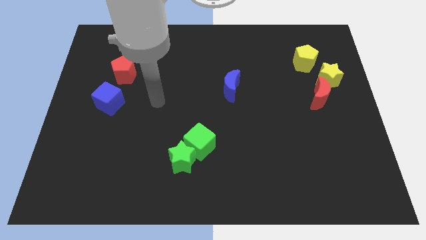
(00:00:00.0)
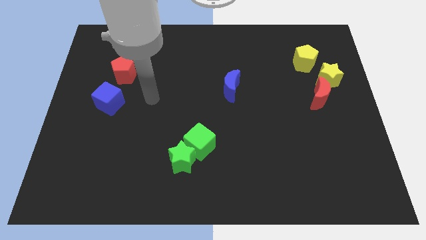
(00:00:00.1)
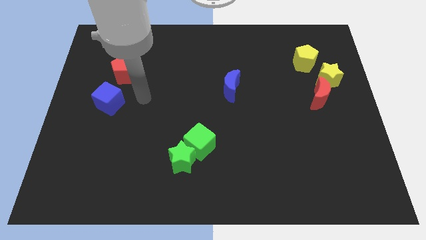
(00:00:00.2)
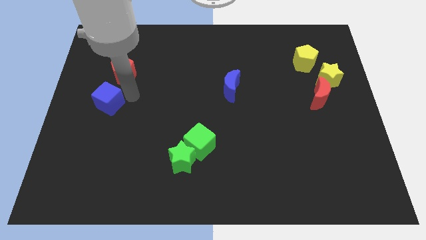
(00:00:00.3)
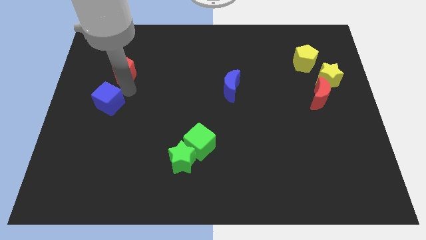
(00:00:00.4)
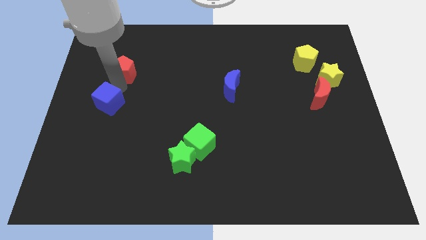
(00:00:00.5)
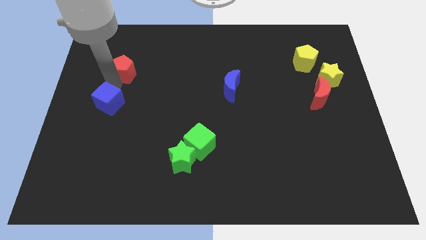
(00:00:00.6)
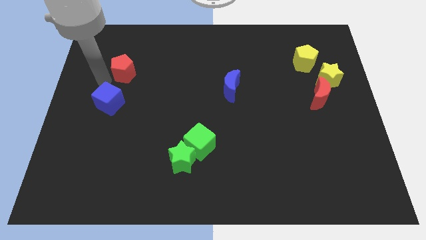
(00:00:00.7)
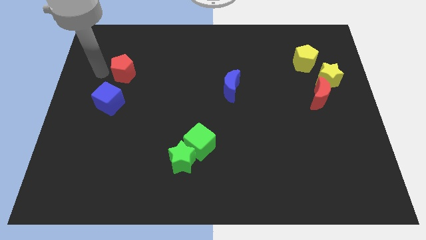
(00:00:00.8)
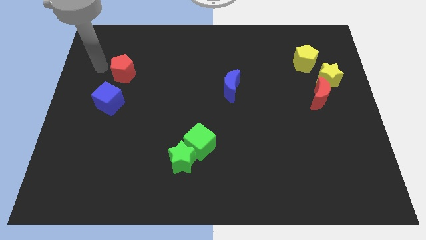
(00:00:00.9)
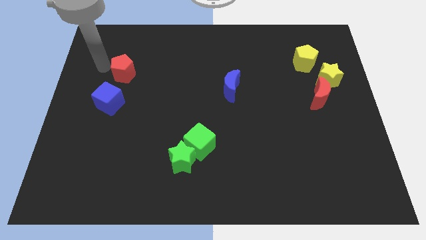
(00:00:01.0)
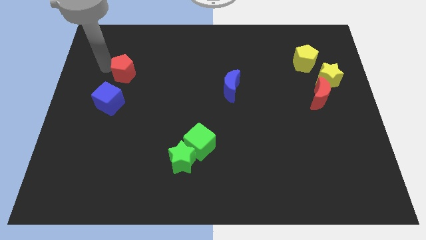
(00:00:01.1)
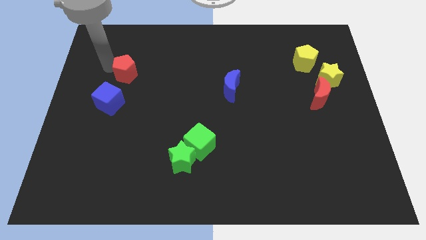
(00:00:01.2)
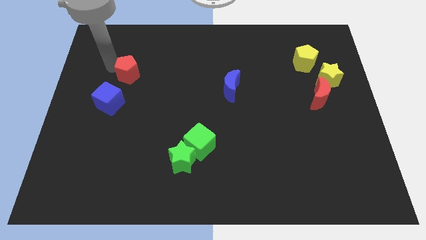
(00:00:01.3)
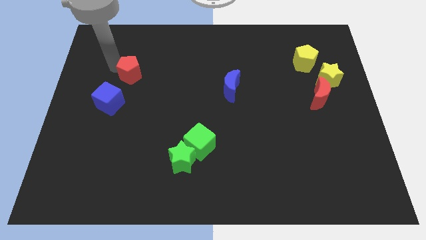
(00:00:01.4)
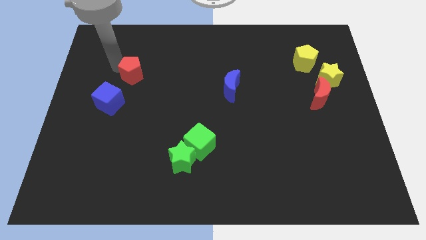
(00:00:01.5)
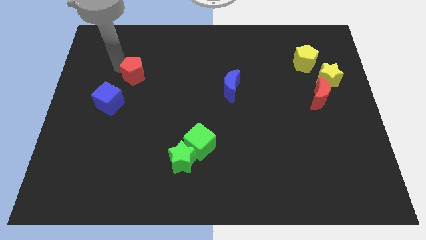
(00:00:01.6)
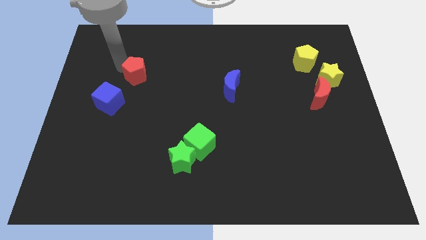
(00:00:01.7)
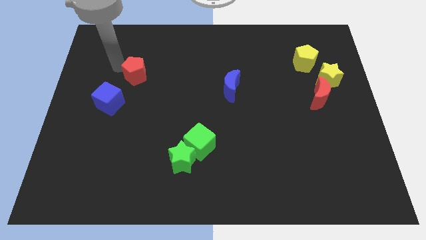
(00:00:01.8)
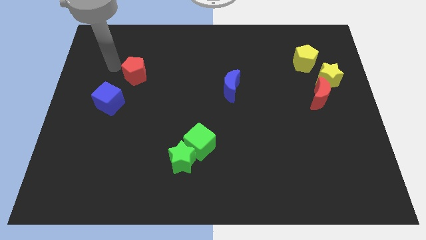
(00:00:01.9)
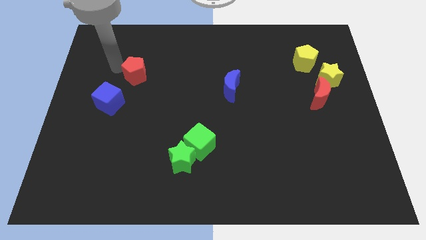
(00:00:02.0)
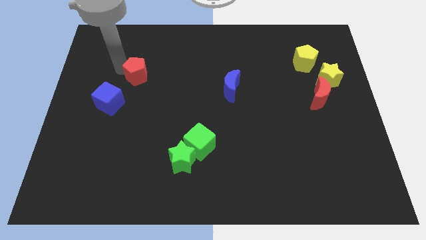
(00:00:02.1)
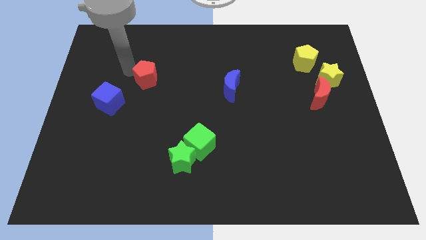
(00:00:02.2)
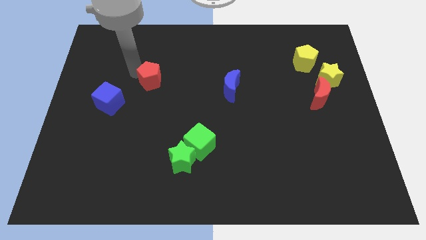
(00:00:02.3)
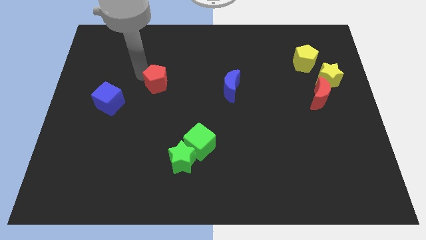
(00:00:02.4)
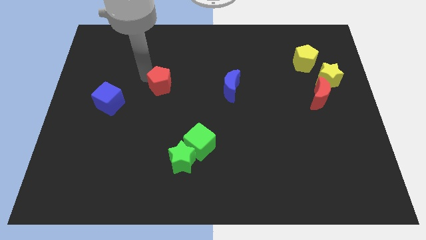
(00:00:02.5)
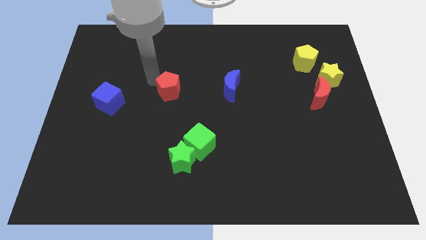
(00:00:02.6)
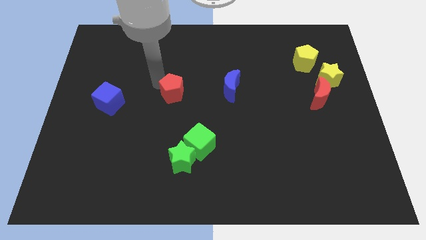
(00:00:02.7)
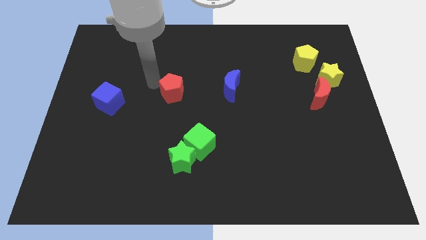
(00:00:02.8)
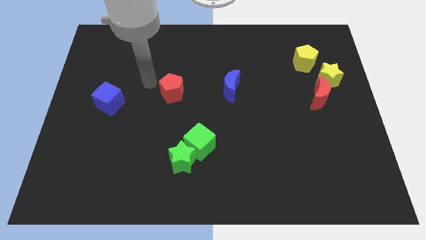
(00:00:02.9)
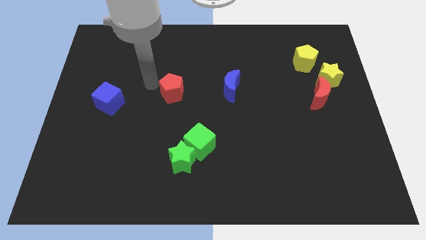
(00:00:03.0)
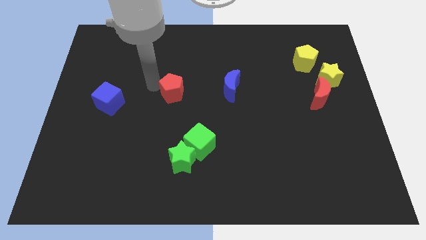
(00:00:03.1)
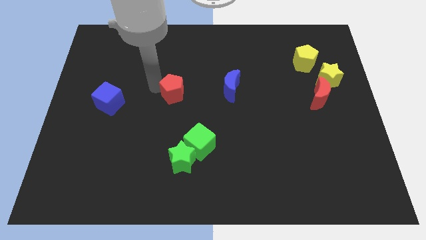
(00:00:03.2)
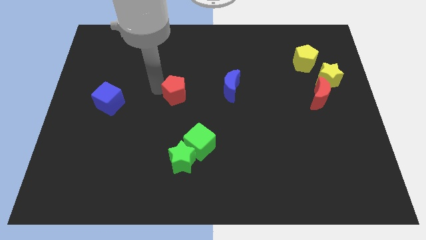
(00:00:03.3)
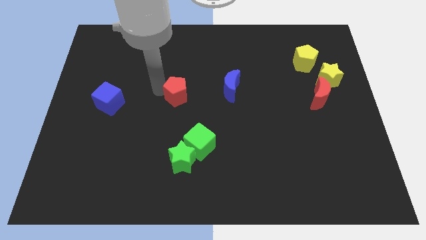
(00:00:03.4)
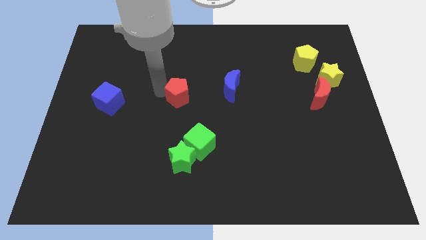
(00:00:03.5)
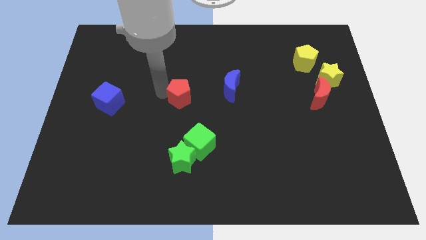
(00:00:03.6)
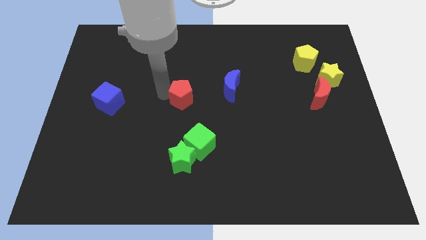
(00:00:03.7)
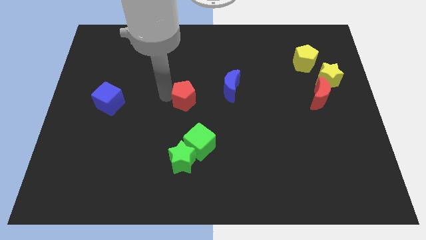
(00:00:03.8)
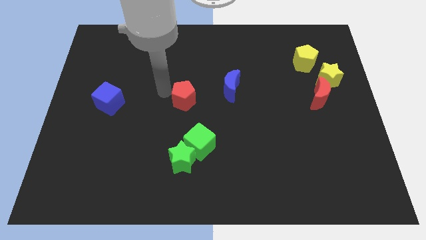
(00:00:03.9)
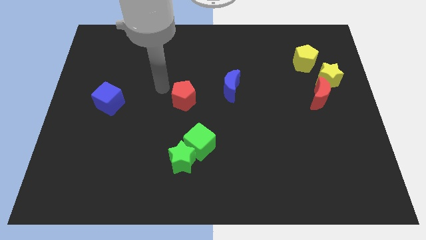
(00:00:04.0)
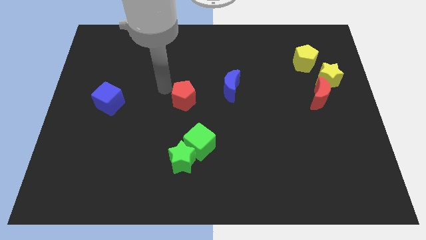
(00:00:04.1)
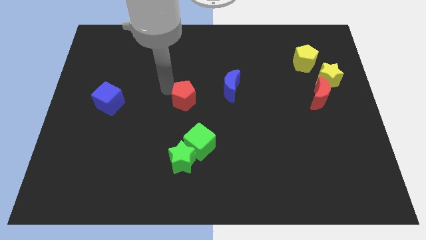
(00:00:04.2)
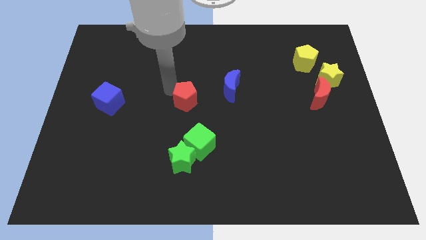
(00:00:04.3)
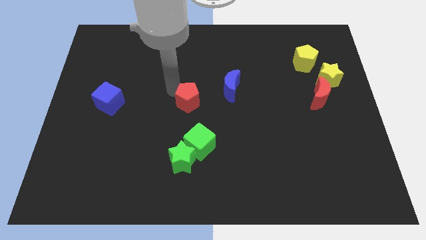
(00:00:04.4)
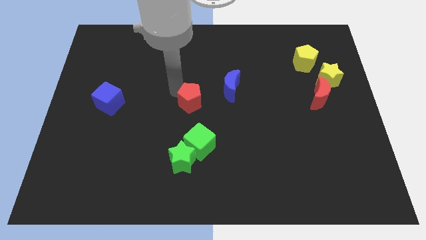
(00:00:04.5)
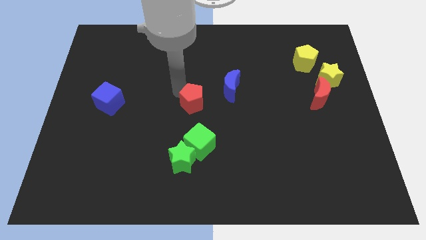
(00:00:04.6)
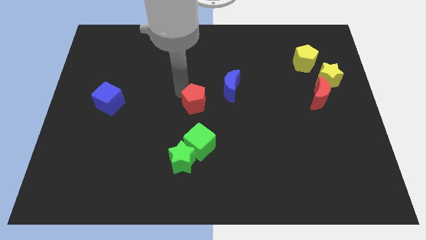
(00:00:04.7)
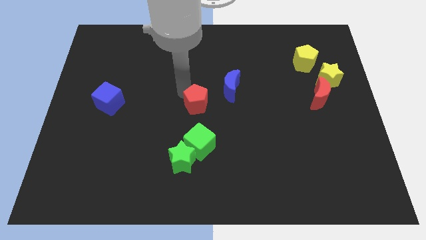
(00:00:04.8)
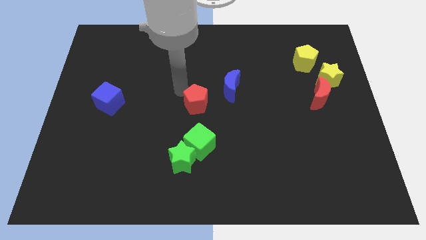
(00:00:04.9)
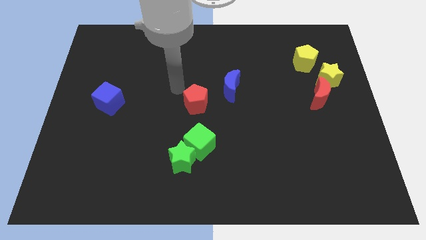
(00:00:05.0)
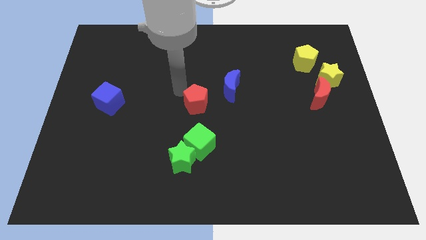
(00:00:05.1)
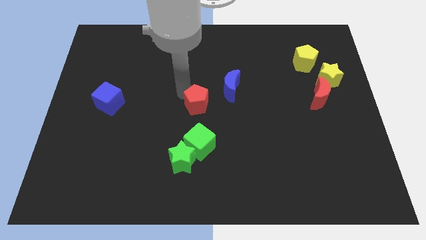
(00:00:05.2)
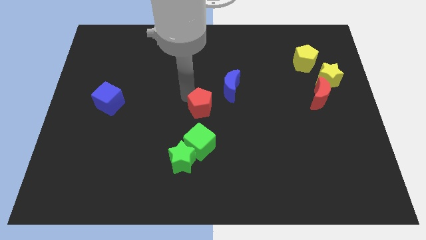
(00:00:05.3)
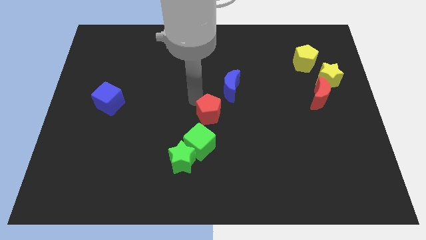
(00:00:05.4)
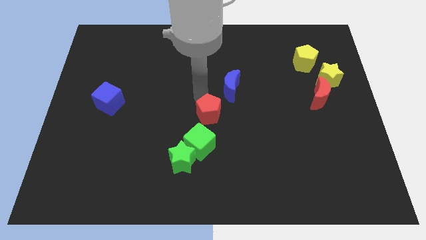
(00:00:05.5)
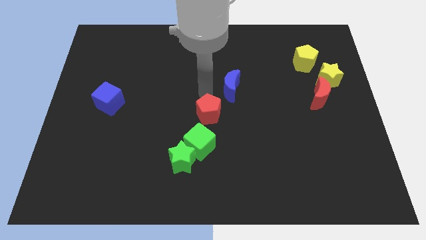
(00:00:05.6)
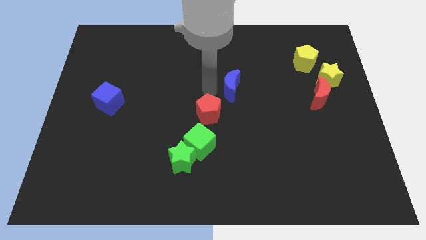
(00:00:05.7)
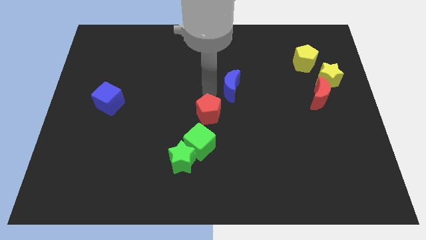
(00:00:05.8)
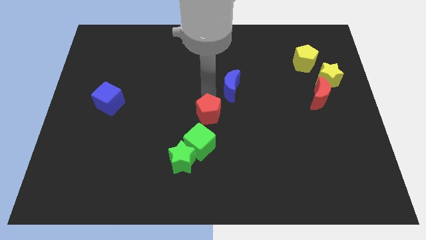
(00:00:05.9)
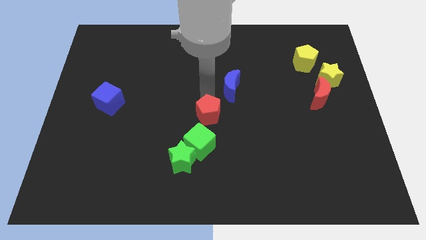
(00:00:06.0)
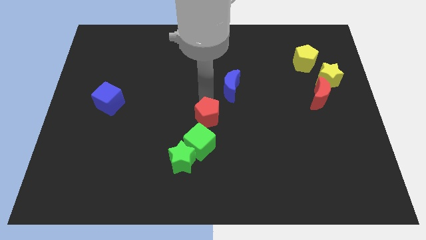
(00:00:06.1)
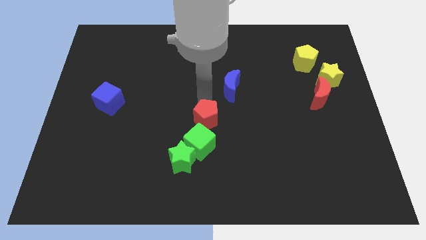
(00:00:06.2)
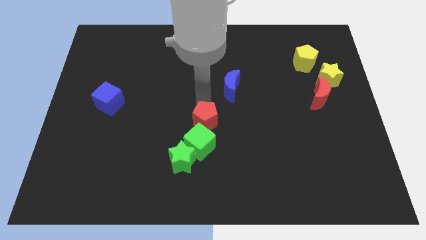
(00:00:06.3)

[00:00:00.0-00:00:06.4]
put the red pentagon to the top right side of the green star
